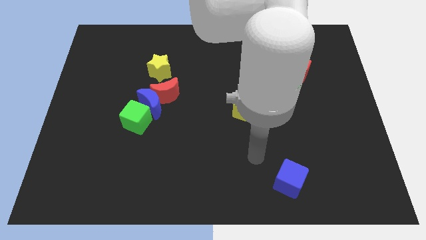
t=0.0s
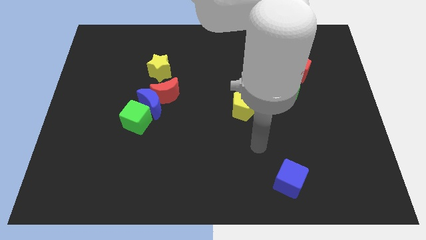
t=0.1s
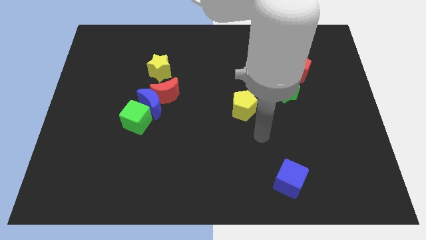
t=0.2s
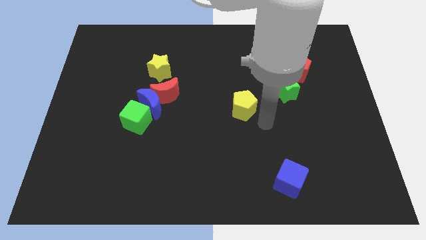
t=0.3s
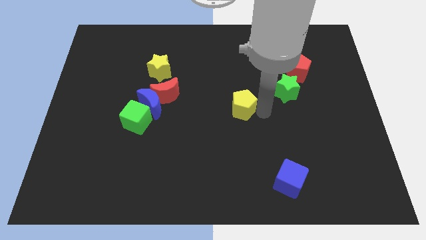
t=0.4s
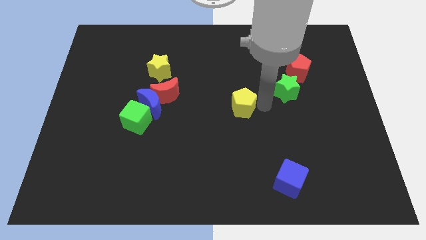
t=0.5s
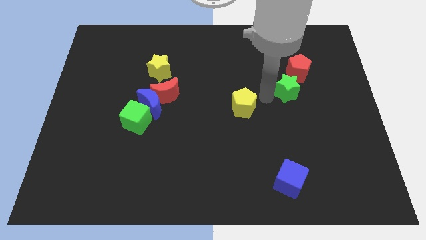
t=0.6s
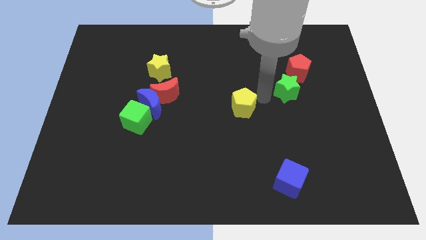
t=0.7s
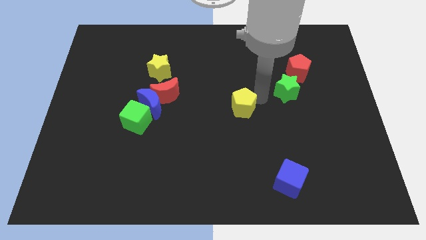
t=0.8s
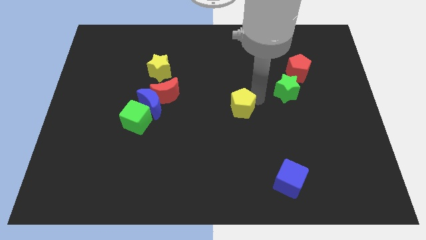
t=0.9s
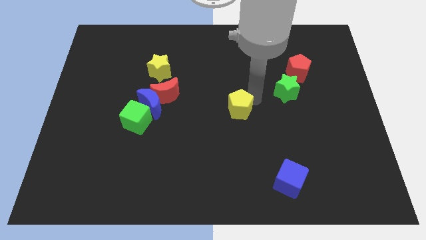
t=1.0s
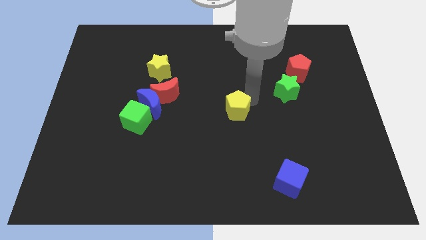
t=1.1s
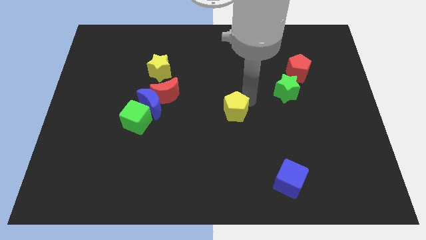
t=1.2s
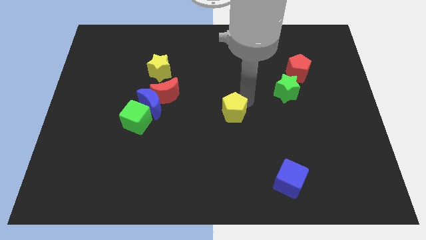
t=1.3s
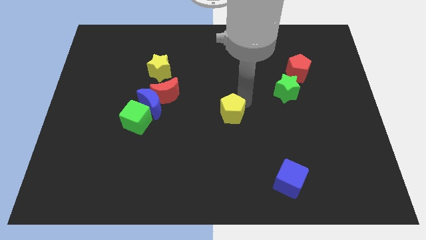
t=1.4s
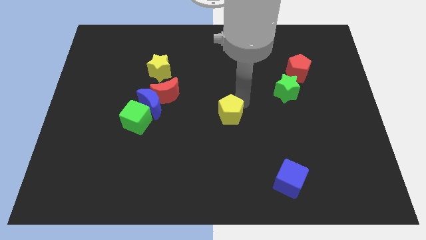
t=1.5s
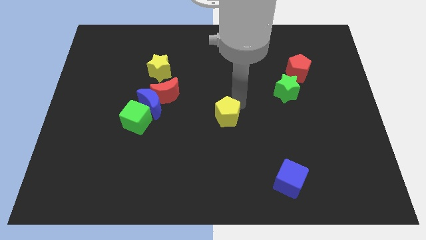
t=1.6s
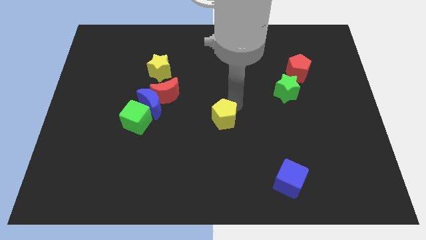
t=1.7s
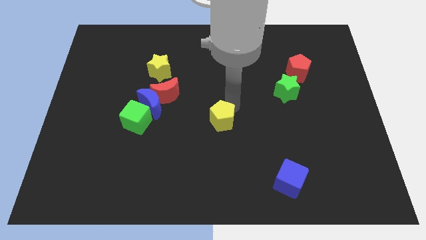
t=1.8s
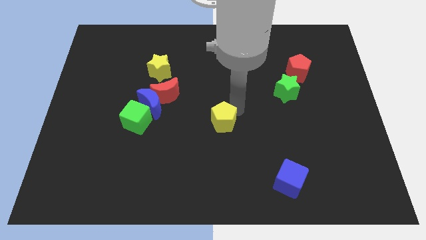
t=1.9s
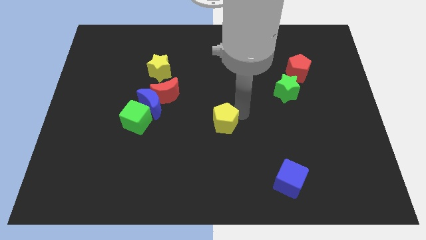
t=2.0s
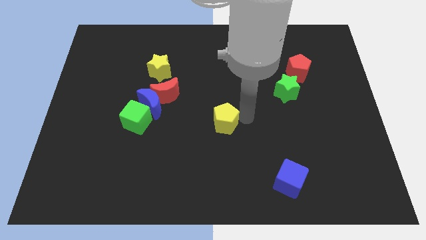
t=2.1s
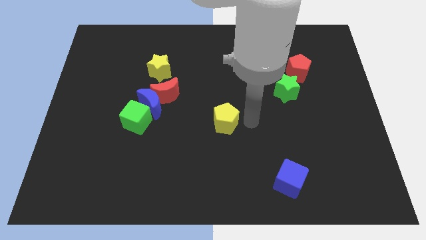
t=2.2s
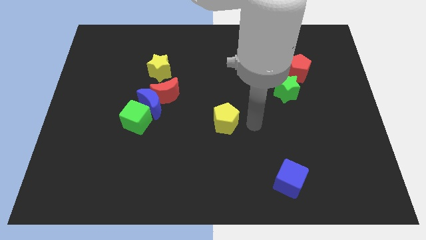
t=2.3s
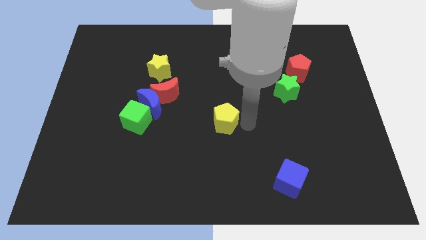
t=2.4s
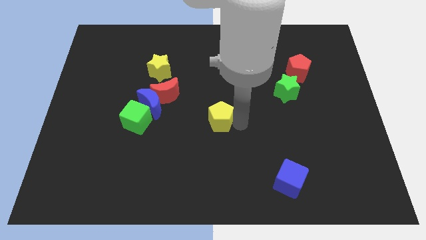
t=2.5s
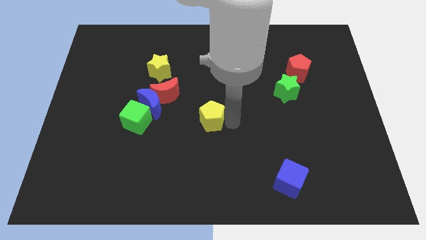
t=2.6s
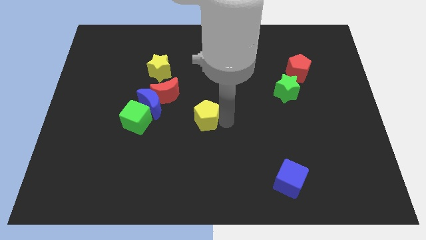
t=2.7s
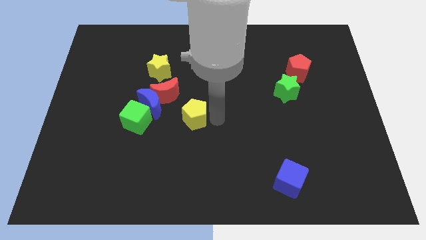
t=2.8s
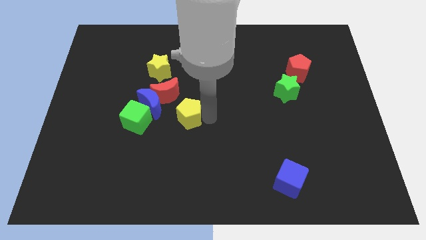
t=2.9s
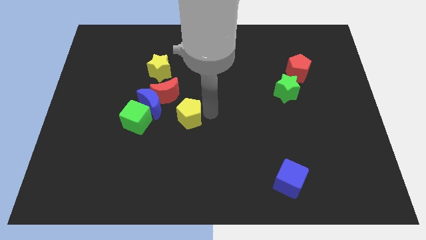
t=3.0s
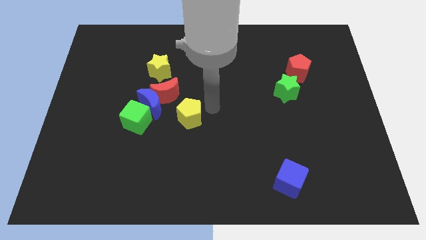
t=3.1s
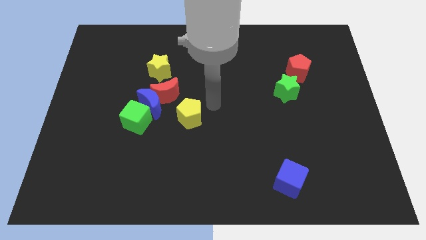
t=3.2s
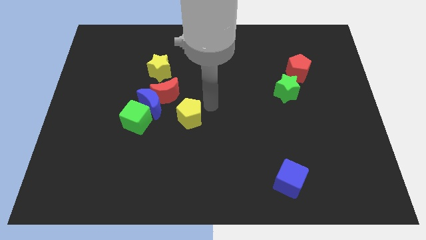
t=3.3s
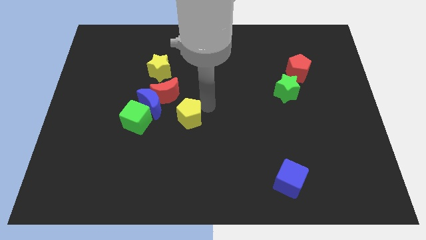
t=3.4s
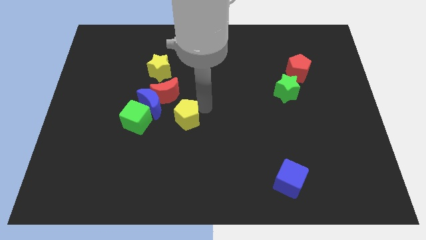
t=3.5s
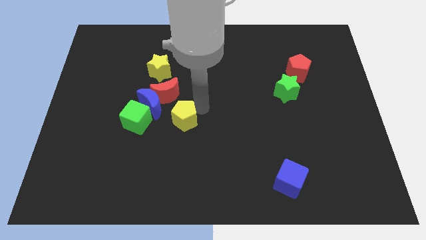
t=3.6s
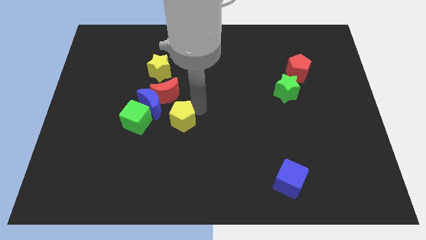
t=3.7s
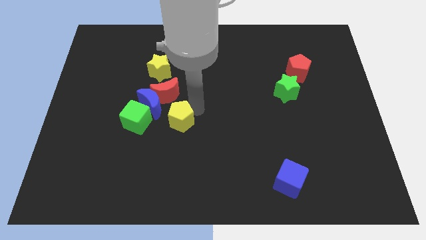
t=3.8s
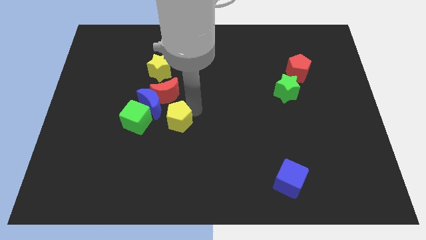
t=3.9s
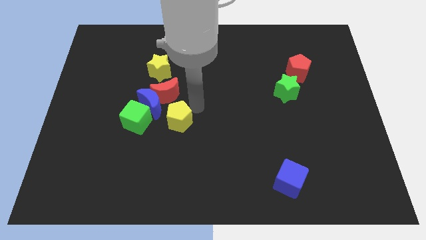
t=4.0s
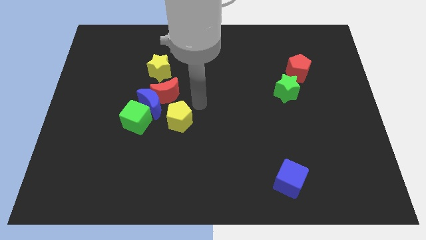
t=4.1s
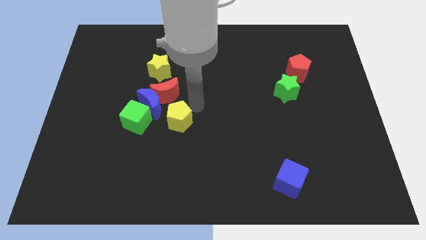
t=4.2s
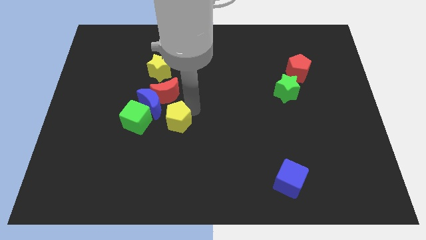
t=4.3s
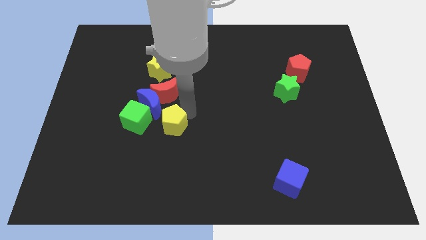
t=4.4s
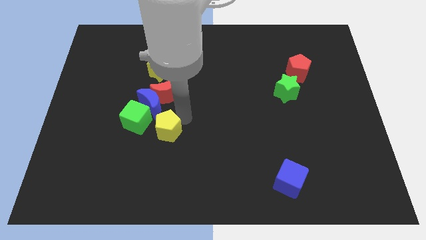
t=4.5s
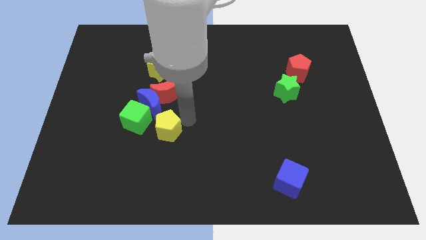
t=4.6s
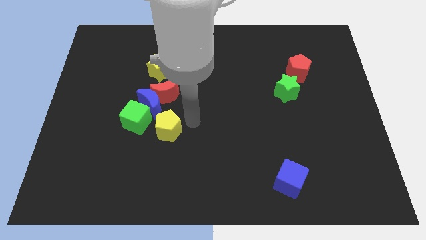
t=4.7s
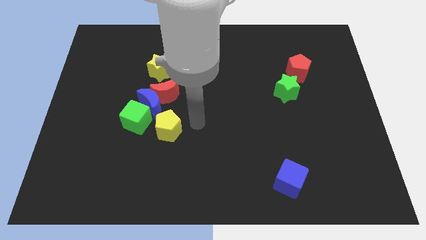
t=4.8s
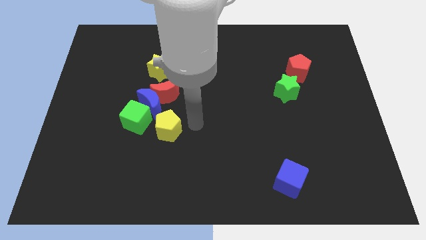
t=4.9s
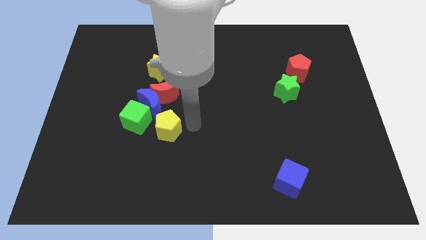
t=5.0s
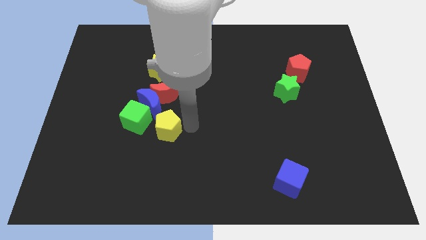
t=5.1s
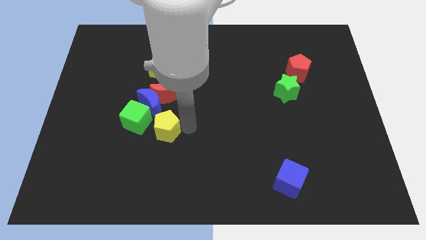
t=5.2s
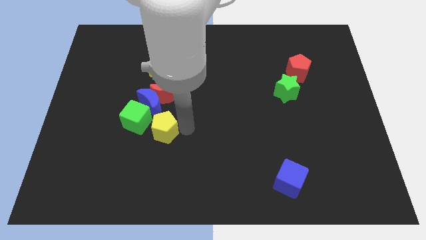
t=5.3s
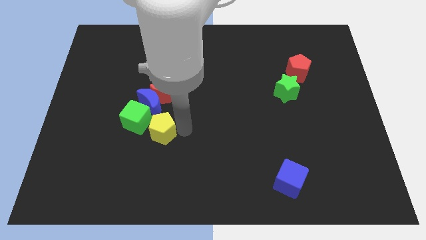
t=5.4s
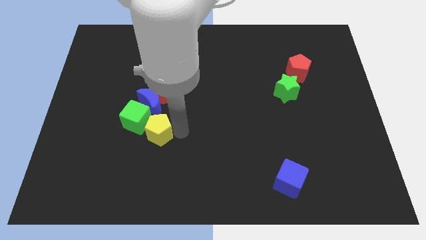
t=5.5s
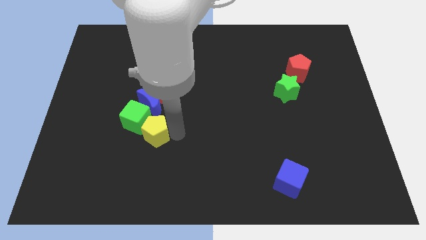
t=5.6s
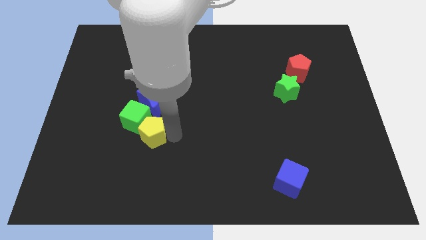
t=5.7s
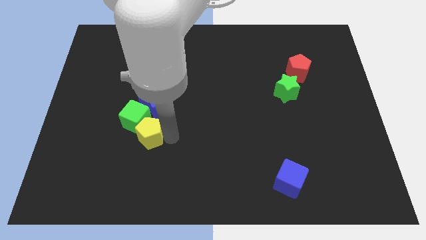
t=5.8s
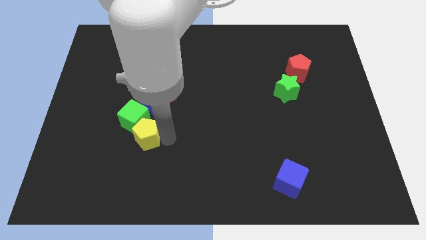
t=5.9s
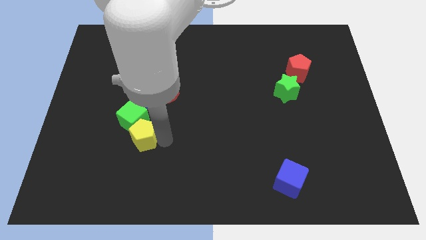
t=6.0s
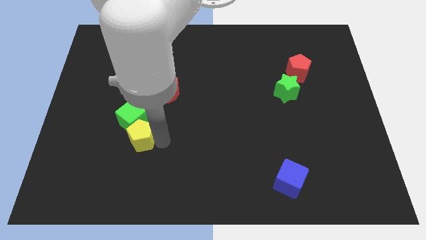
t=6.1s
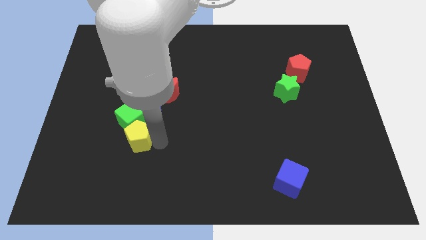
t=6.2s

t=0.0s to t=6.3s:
slide the yellow pentagon left

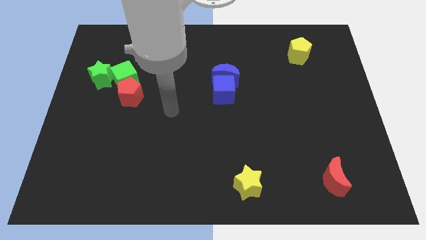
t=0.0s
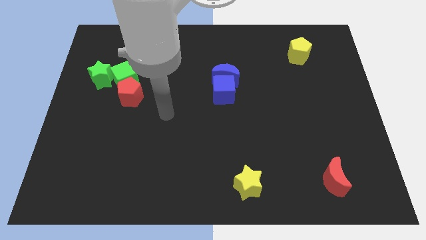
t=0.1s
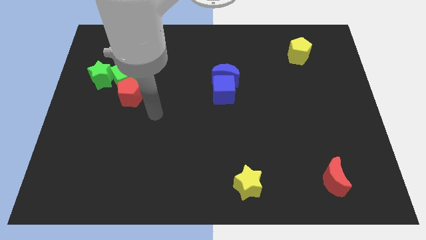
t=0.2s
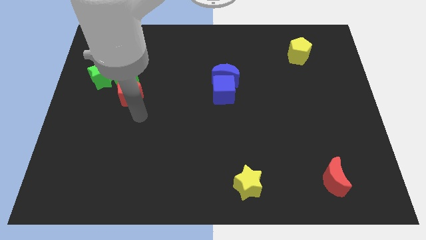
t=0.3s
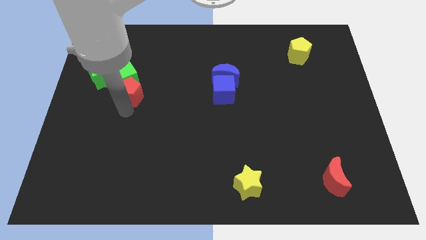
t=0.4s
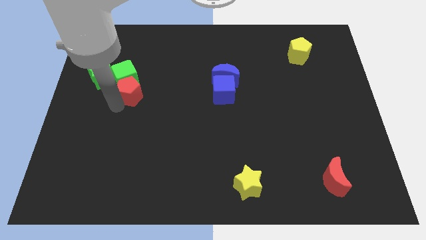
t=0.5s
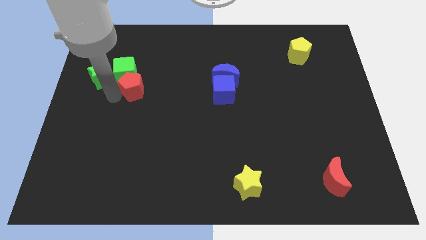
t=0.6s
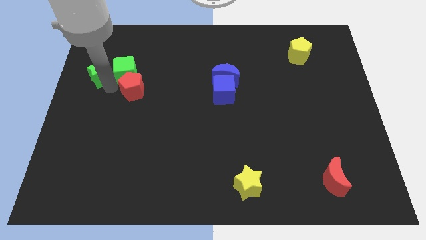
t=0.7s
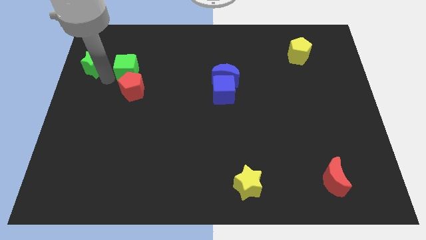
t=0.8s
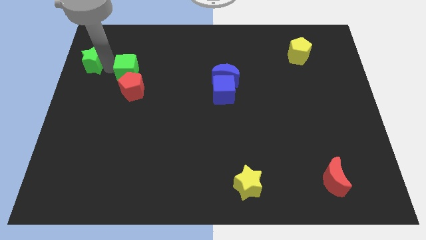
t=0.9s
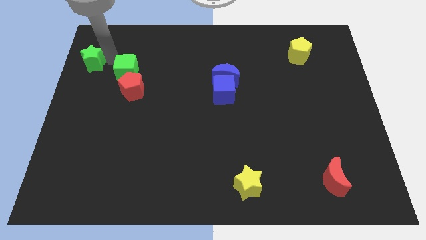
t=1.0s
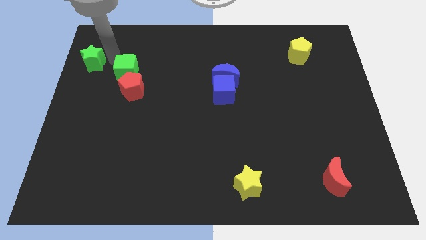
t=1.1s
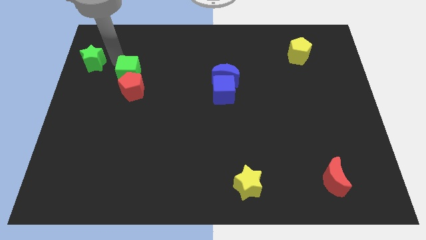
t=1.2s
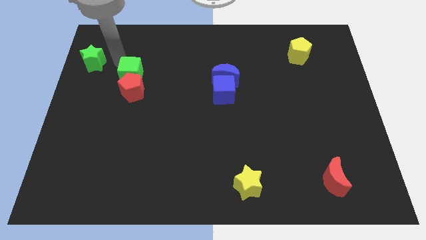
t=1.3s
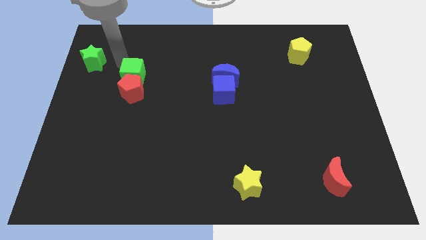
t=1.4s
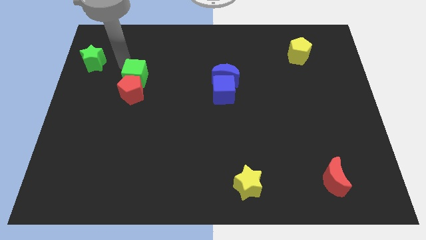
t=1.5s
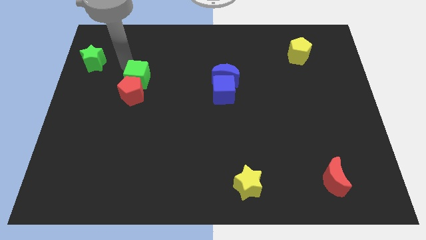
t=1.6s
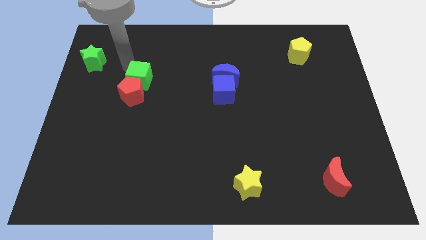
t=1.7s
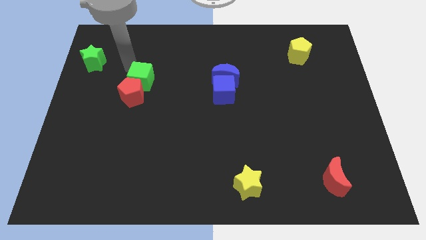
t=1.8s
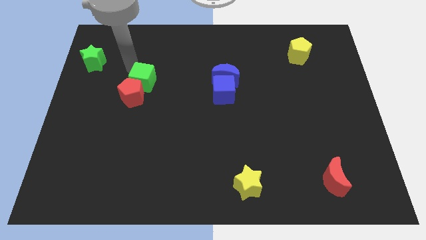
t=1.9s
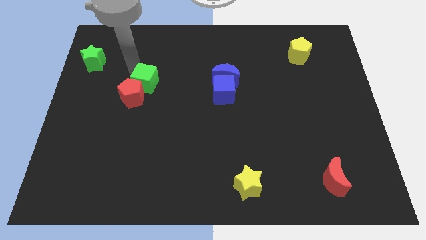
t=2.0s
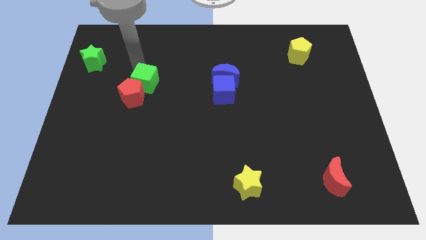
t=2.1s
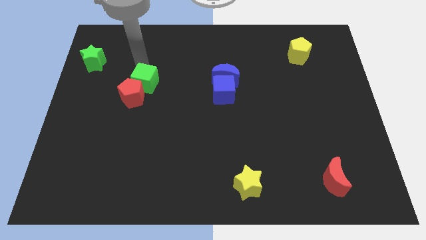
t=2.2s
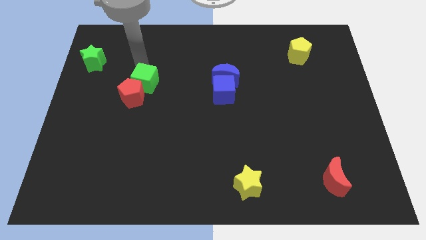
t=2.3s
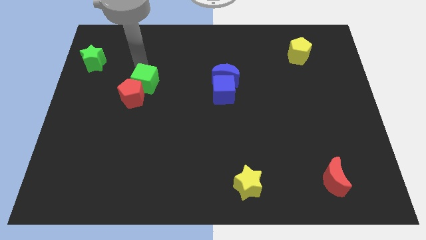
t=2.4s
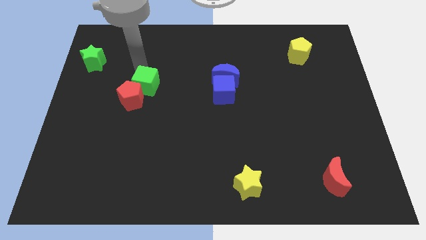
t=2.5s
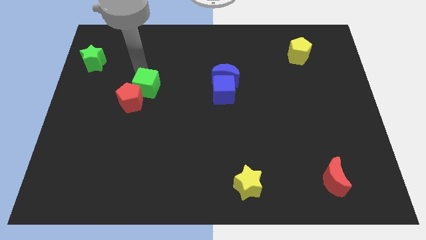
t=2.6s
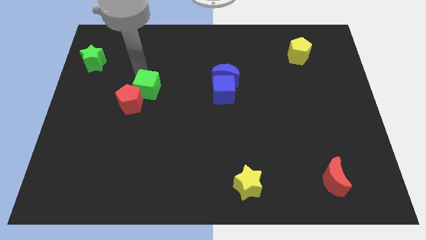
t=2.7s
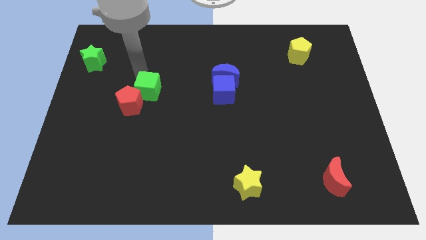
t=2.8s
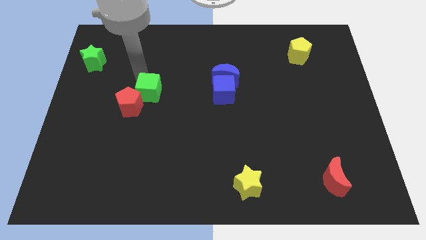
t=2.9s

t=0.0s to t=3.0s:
move the green cube diagonally down and to the right slightly
